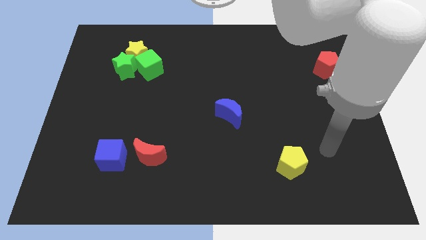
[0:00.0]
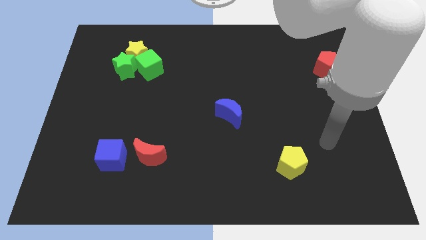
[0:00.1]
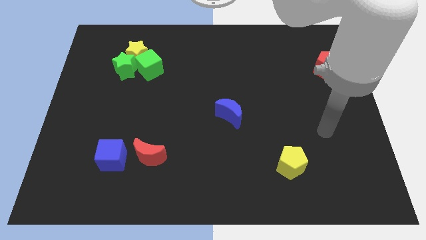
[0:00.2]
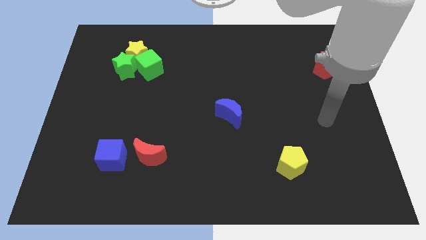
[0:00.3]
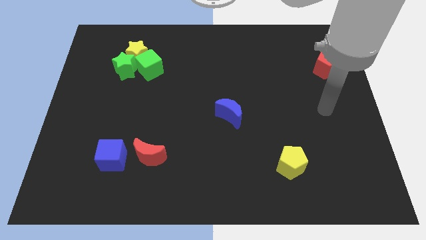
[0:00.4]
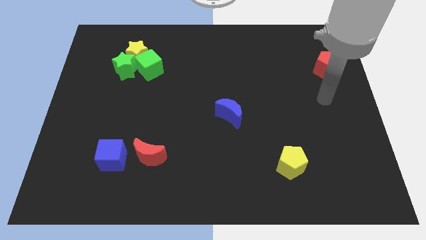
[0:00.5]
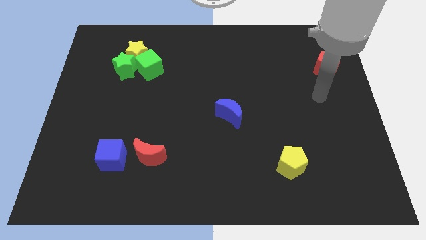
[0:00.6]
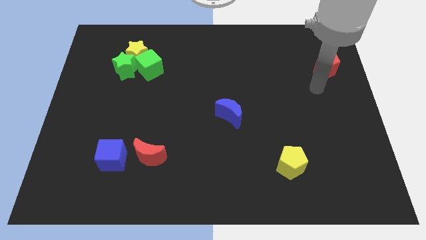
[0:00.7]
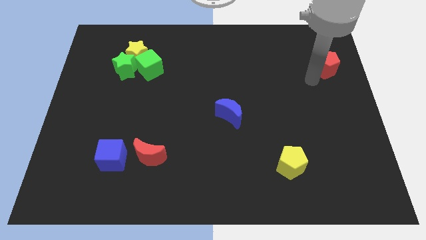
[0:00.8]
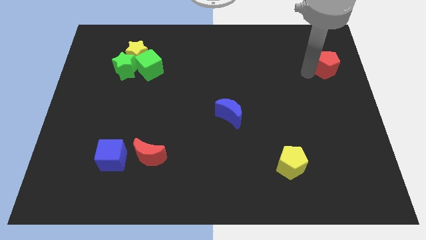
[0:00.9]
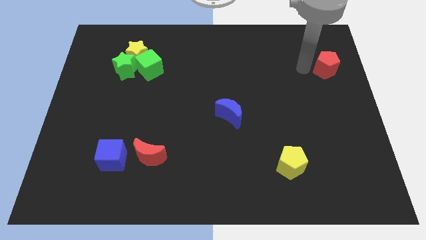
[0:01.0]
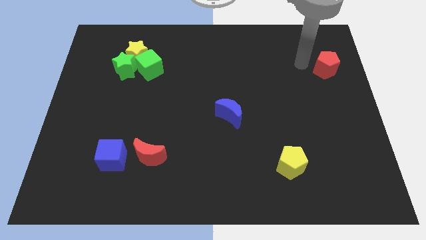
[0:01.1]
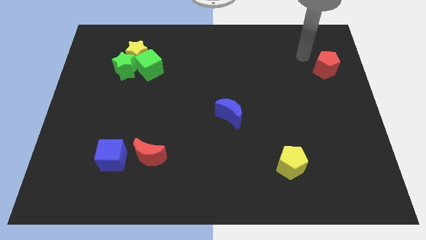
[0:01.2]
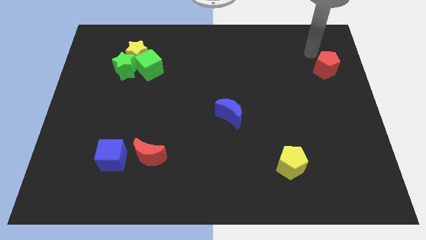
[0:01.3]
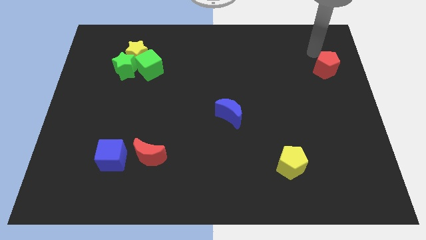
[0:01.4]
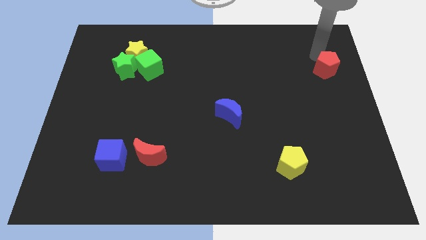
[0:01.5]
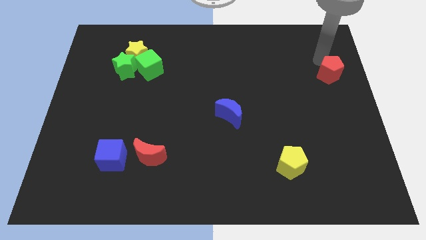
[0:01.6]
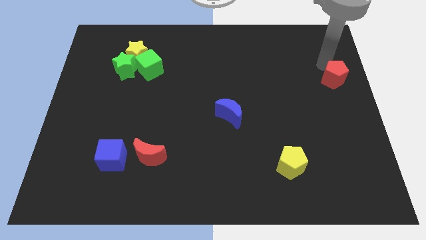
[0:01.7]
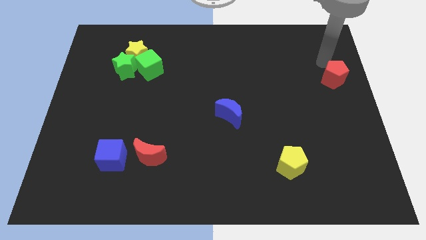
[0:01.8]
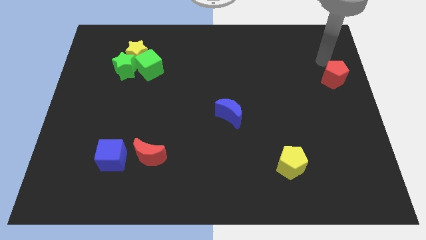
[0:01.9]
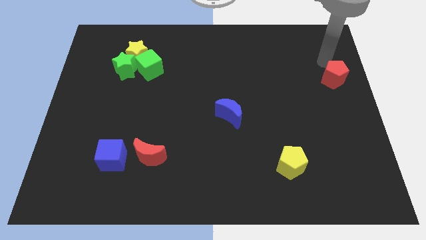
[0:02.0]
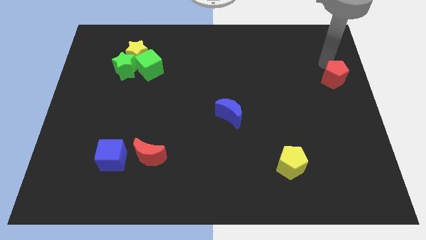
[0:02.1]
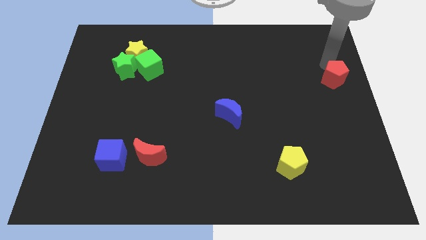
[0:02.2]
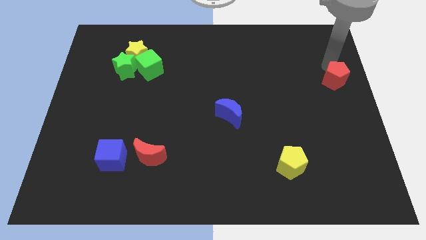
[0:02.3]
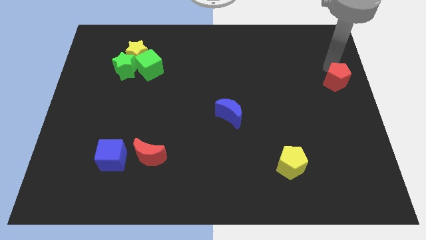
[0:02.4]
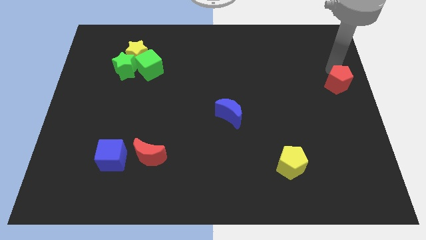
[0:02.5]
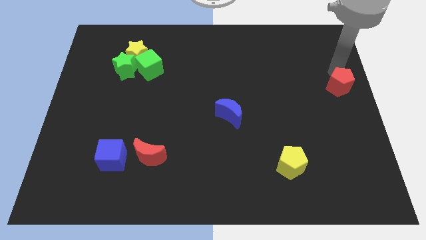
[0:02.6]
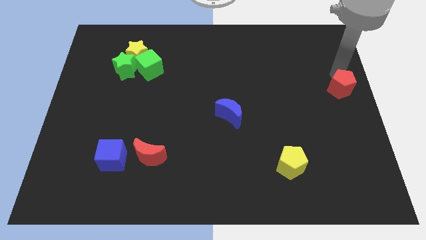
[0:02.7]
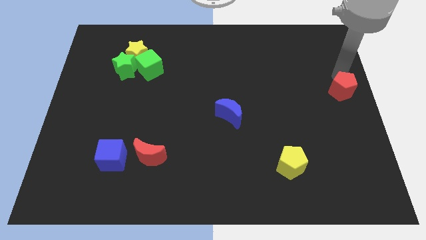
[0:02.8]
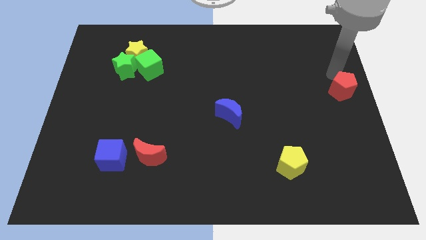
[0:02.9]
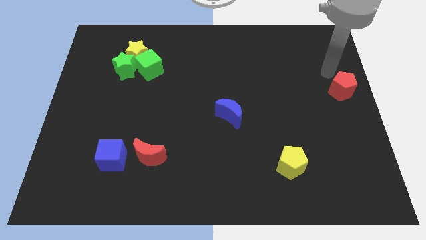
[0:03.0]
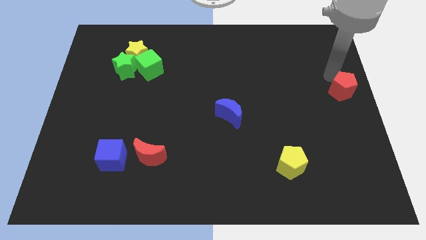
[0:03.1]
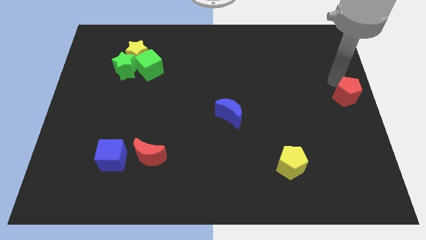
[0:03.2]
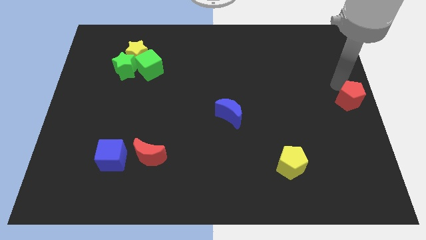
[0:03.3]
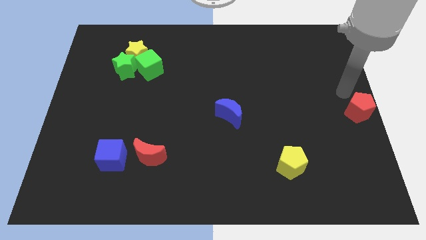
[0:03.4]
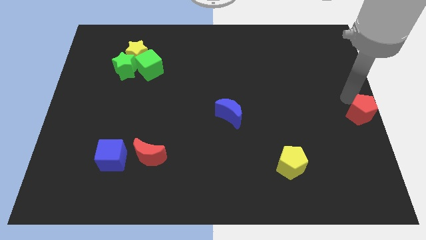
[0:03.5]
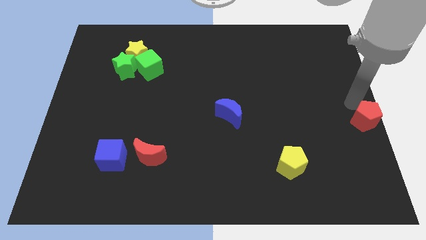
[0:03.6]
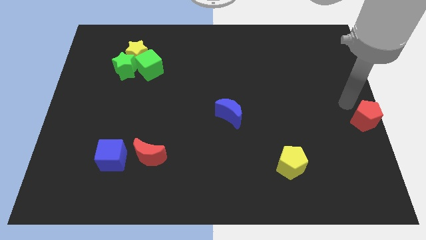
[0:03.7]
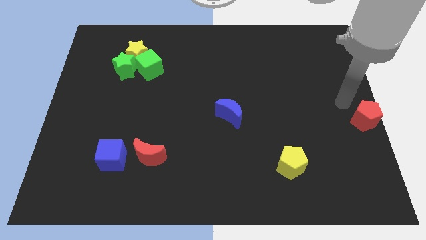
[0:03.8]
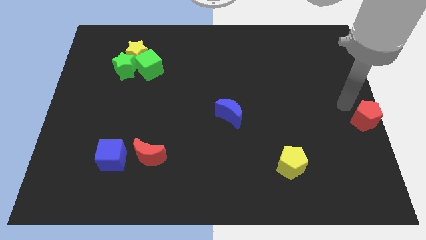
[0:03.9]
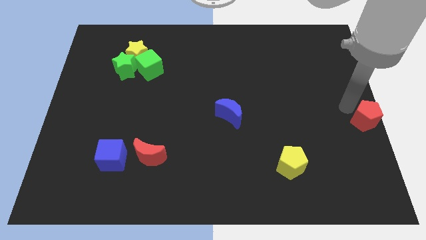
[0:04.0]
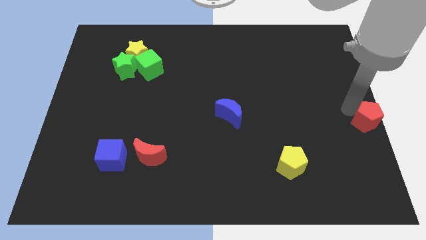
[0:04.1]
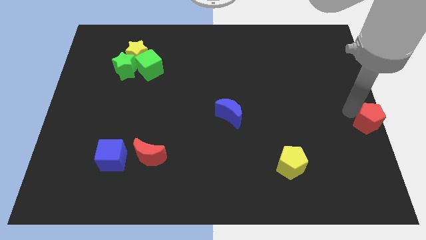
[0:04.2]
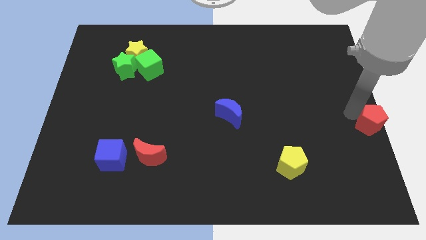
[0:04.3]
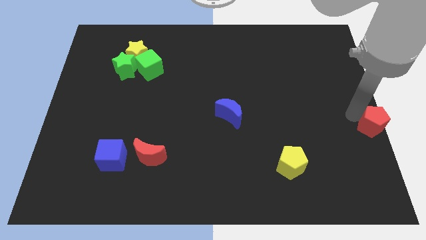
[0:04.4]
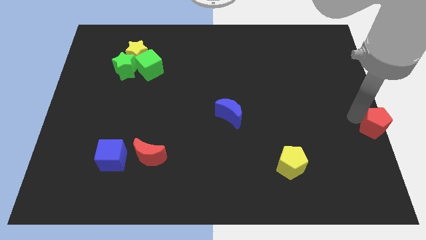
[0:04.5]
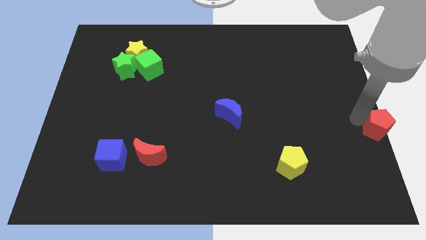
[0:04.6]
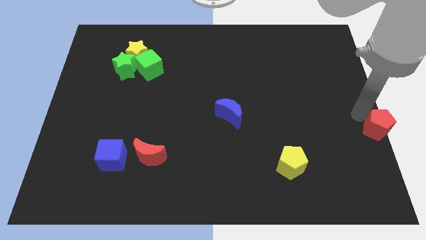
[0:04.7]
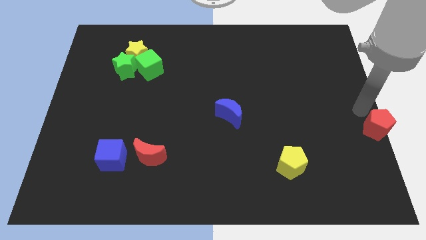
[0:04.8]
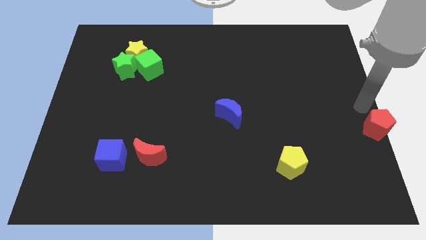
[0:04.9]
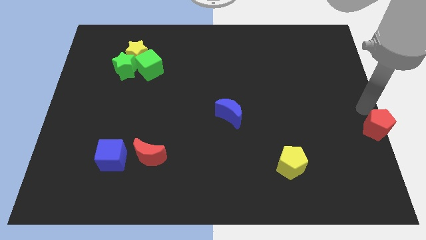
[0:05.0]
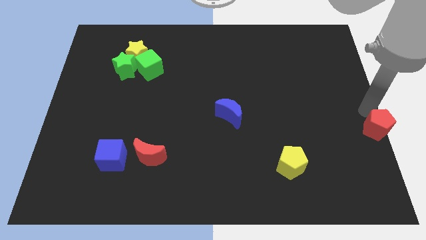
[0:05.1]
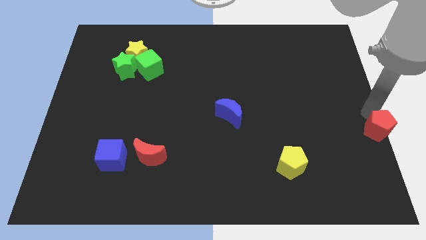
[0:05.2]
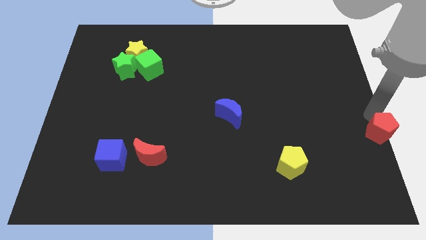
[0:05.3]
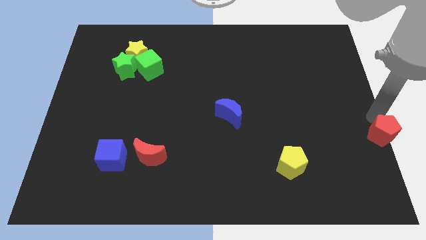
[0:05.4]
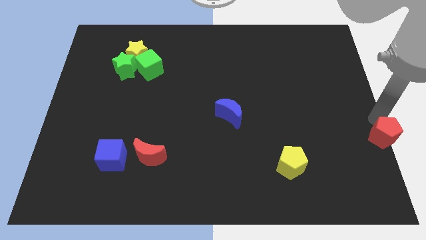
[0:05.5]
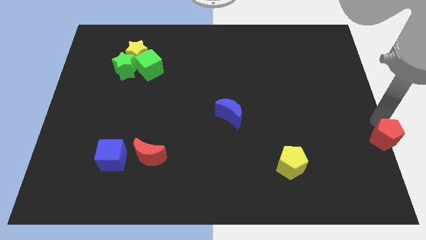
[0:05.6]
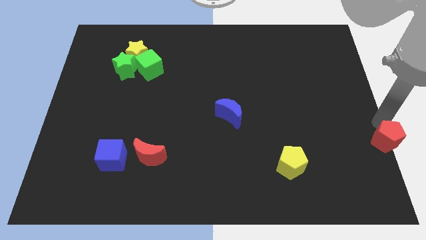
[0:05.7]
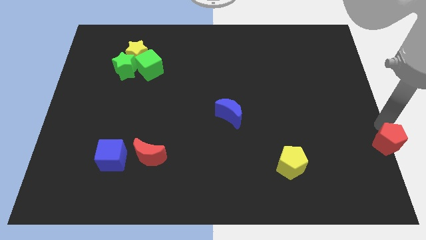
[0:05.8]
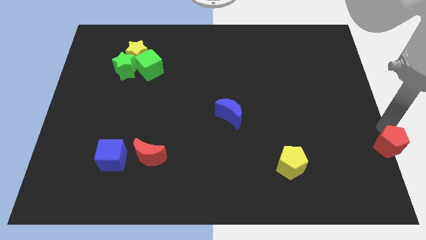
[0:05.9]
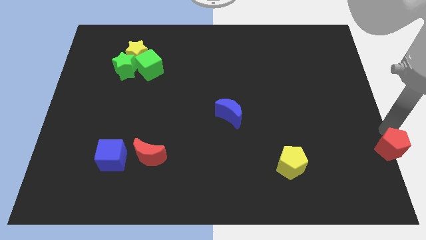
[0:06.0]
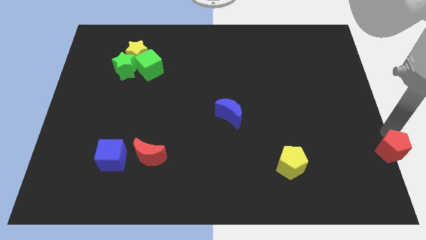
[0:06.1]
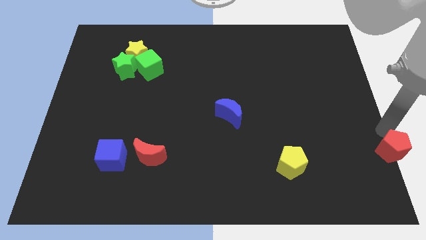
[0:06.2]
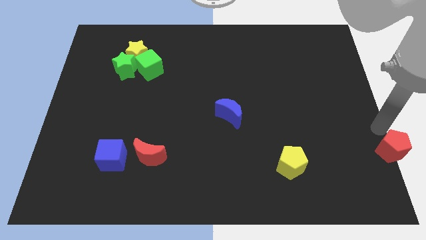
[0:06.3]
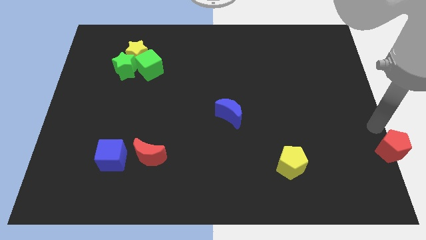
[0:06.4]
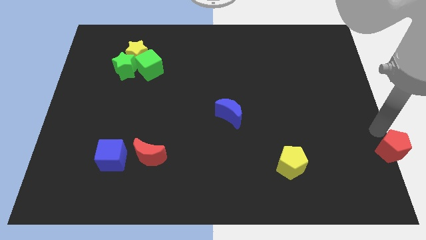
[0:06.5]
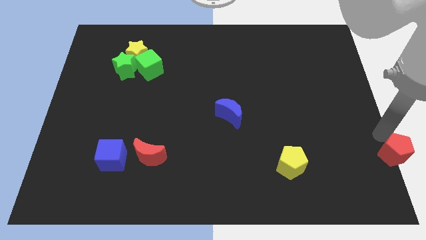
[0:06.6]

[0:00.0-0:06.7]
slide the red pentagon to the bottom right
